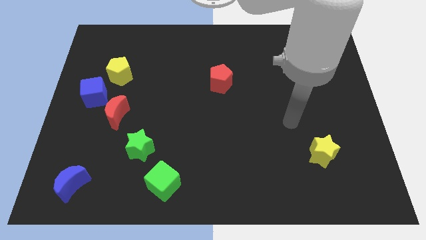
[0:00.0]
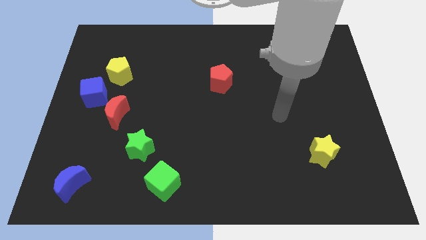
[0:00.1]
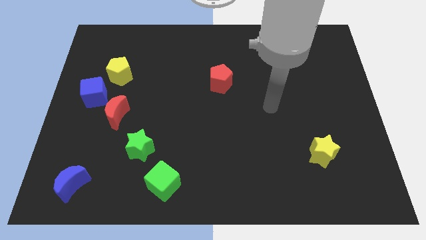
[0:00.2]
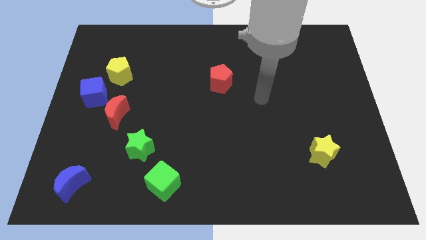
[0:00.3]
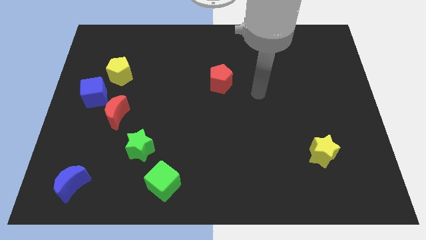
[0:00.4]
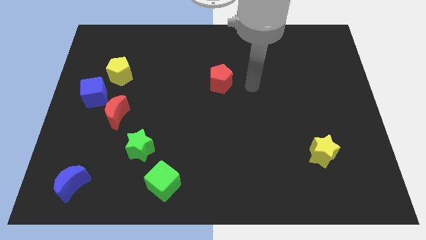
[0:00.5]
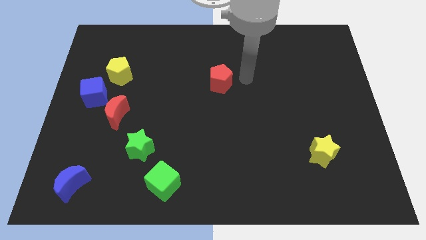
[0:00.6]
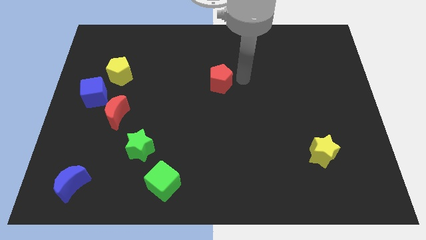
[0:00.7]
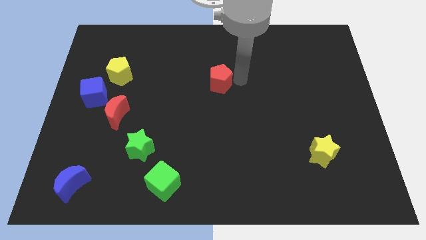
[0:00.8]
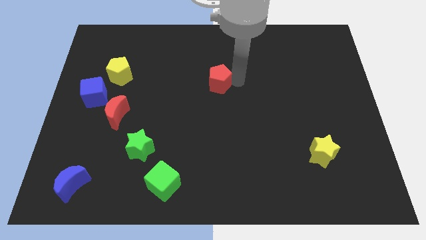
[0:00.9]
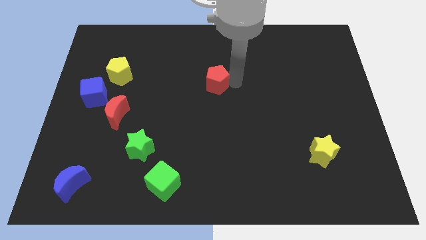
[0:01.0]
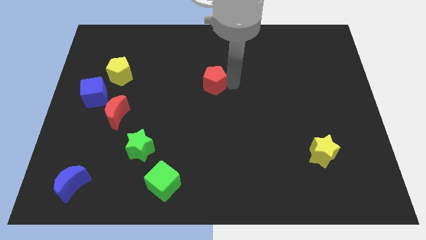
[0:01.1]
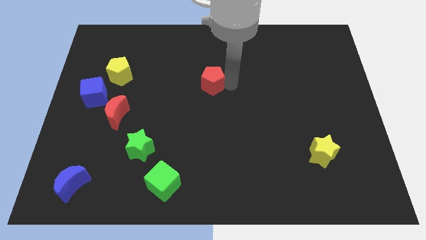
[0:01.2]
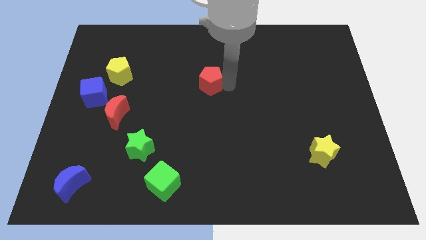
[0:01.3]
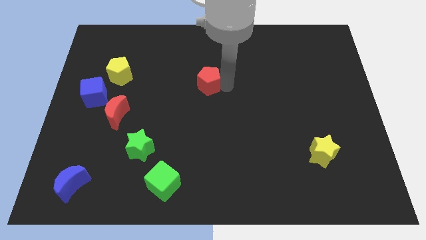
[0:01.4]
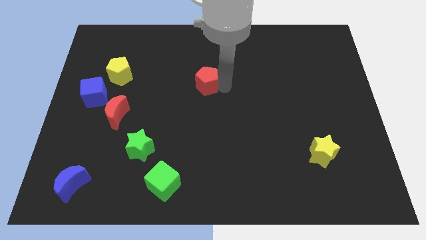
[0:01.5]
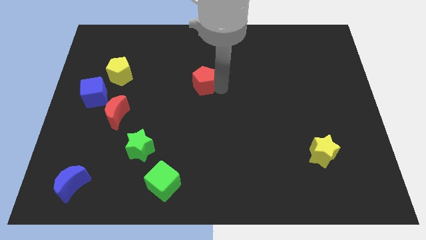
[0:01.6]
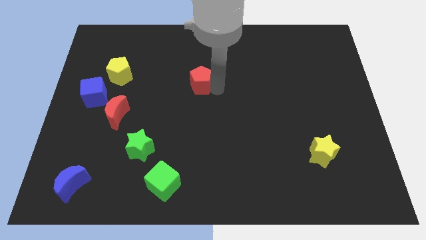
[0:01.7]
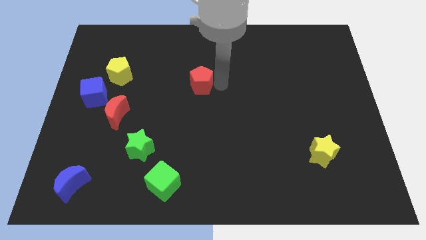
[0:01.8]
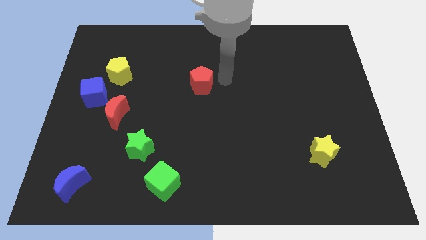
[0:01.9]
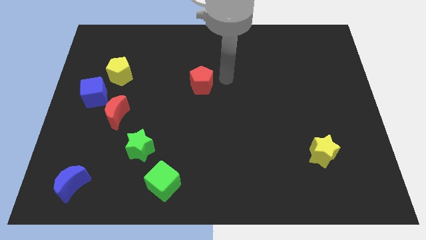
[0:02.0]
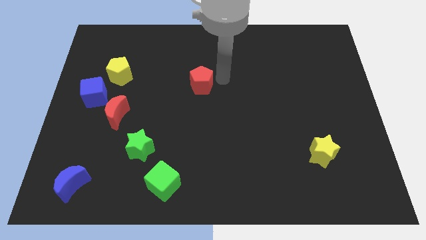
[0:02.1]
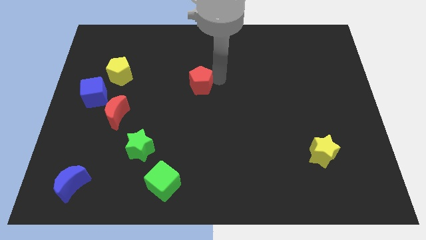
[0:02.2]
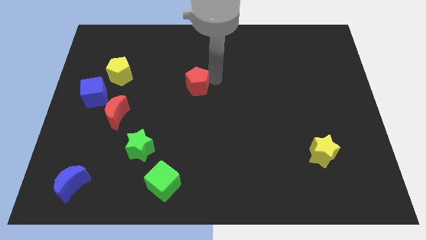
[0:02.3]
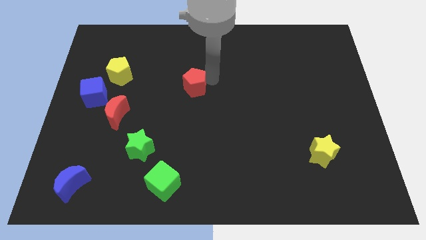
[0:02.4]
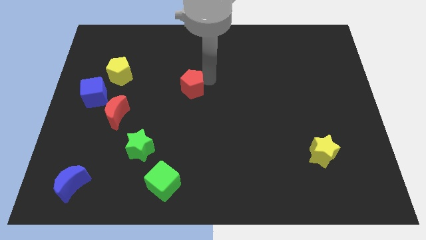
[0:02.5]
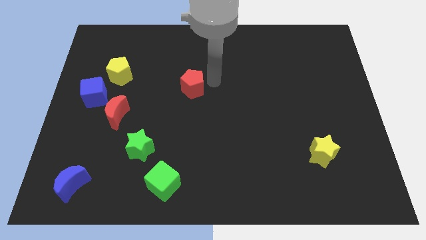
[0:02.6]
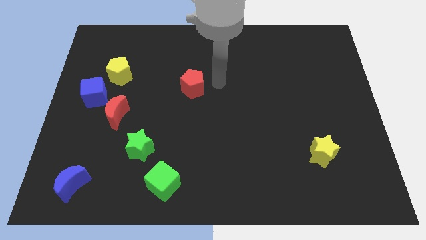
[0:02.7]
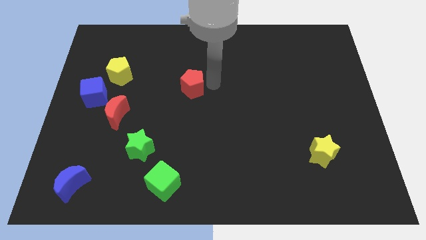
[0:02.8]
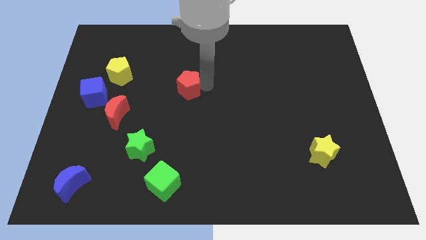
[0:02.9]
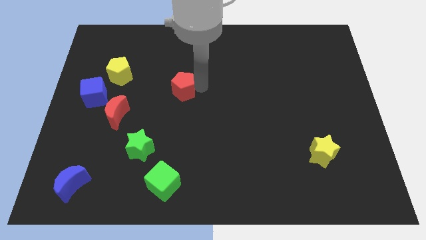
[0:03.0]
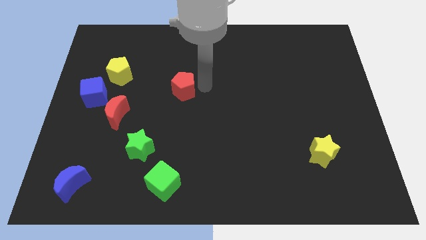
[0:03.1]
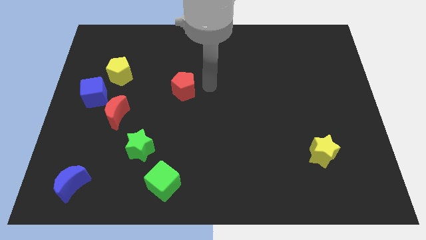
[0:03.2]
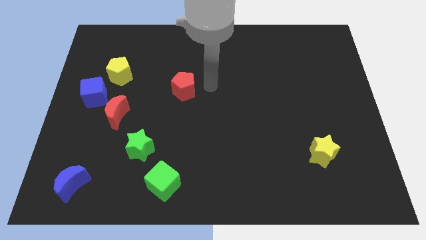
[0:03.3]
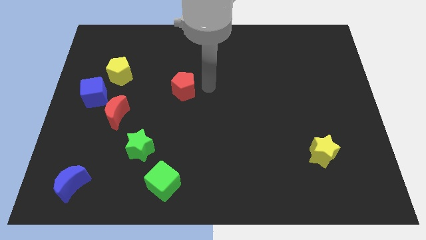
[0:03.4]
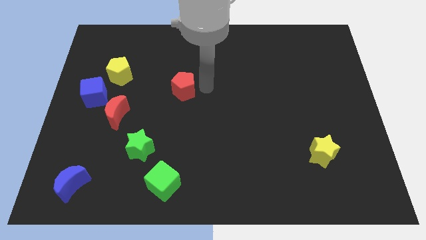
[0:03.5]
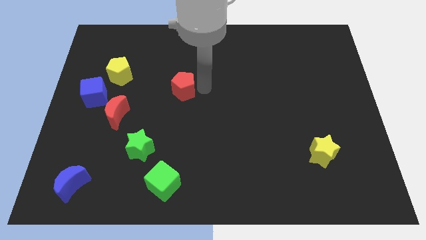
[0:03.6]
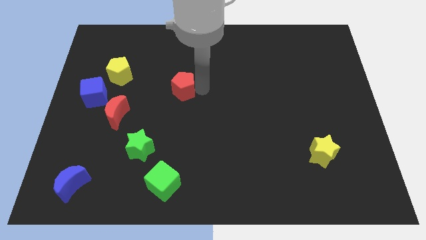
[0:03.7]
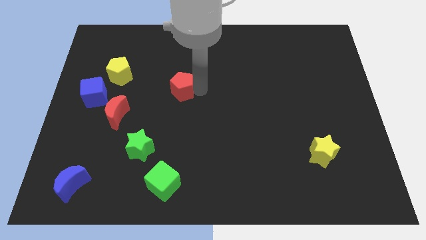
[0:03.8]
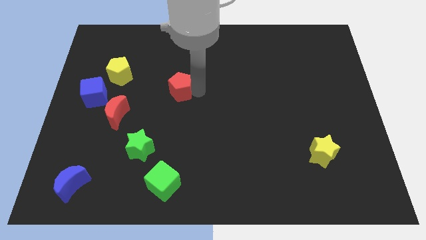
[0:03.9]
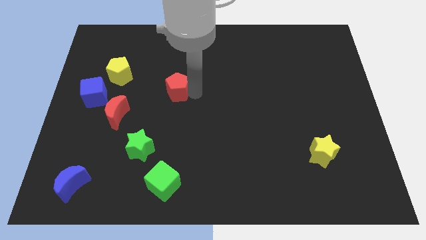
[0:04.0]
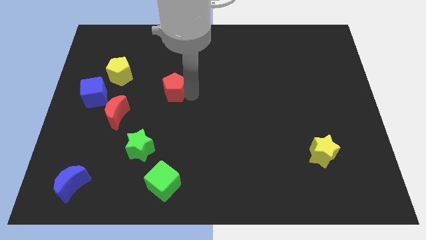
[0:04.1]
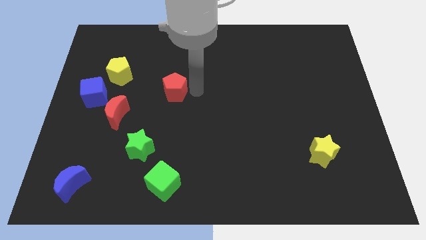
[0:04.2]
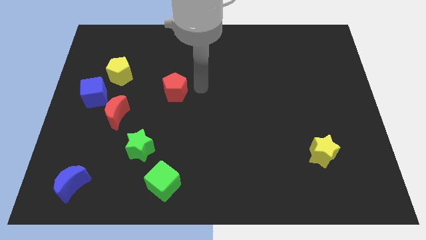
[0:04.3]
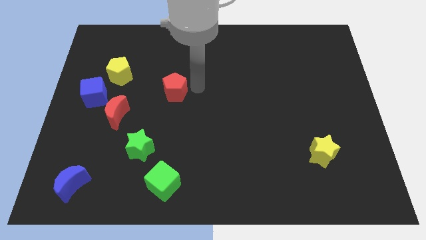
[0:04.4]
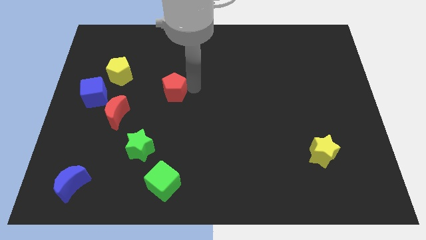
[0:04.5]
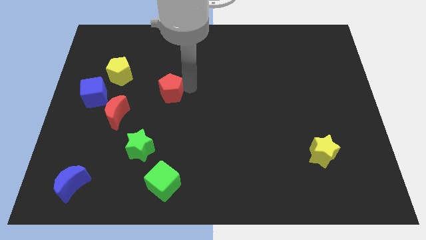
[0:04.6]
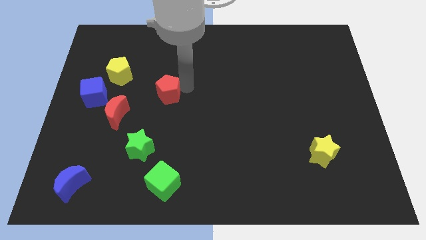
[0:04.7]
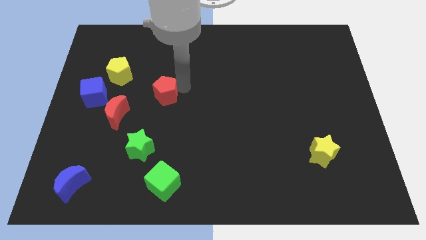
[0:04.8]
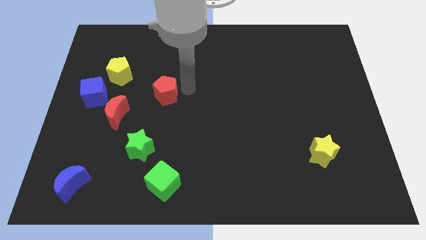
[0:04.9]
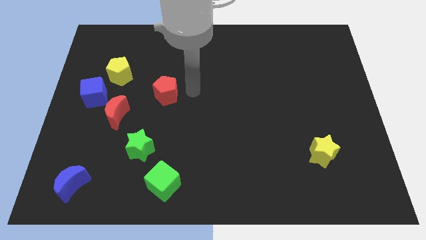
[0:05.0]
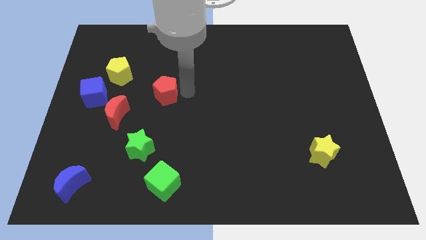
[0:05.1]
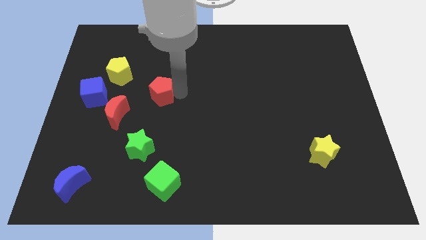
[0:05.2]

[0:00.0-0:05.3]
push the red pentagon diagonally up and to the right of the red moon

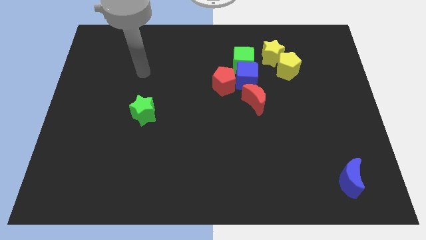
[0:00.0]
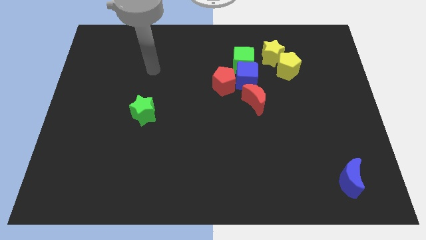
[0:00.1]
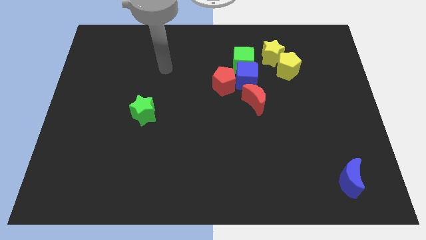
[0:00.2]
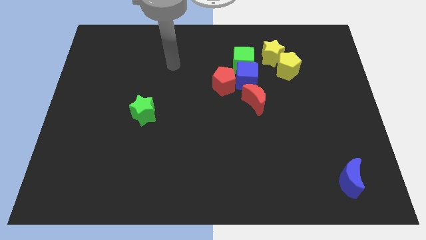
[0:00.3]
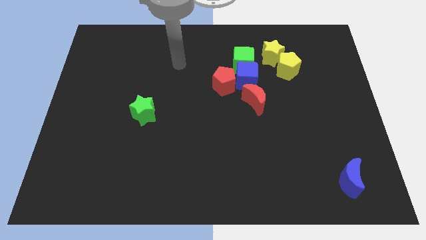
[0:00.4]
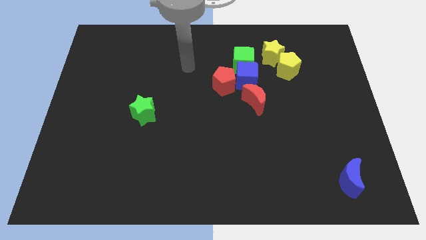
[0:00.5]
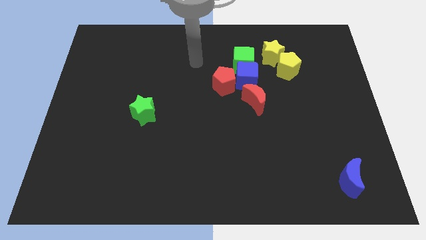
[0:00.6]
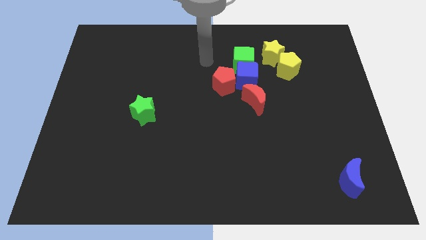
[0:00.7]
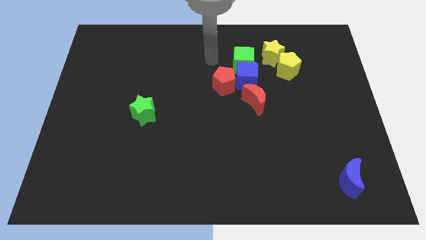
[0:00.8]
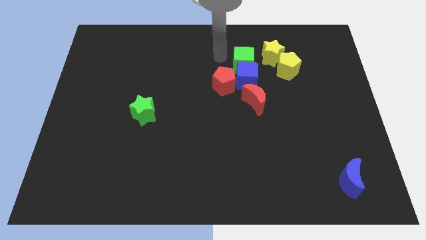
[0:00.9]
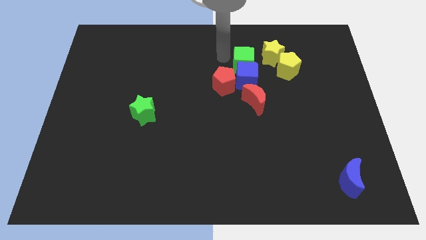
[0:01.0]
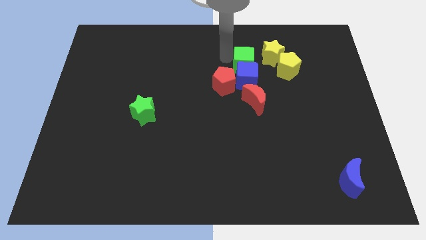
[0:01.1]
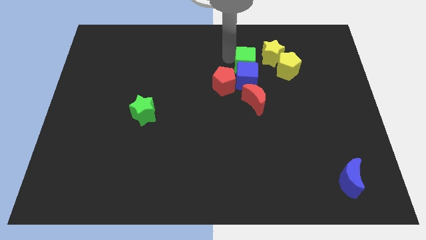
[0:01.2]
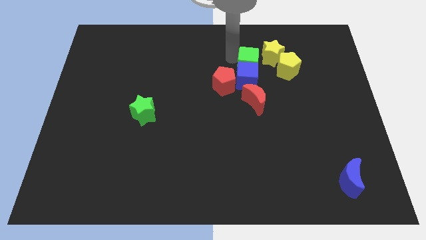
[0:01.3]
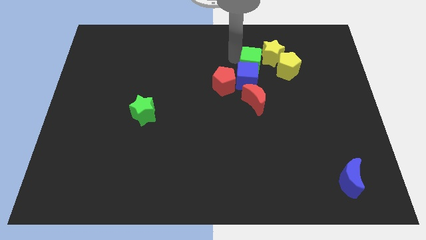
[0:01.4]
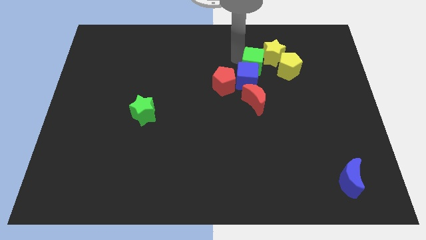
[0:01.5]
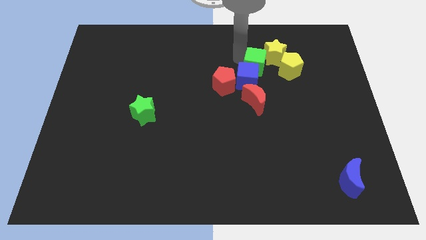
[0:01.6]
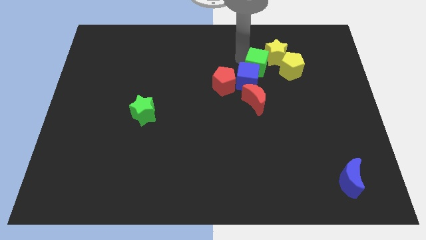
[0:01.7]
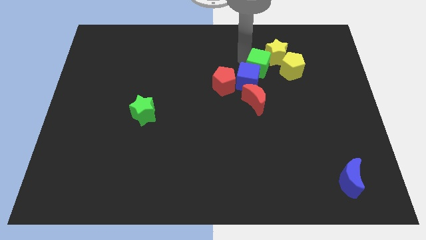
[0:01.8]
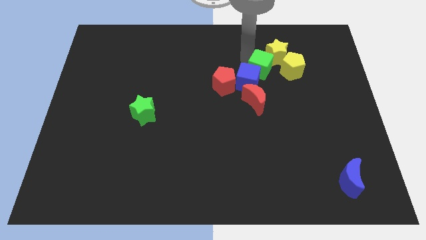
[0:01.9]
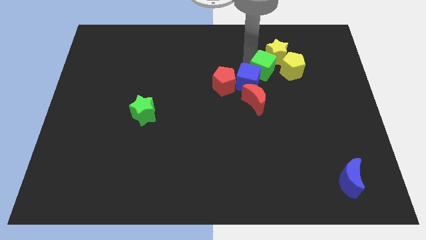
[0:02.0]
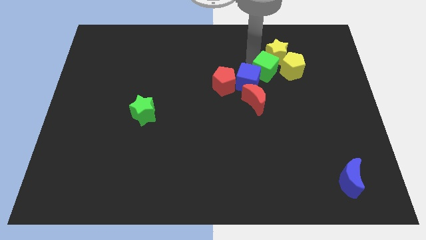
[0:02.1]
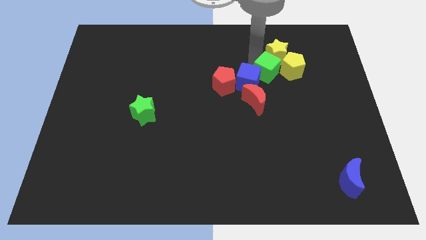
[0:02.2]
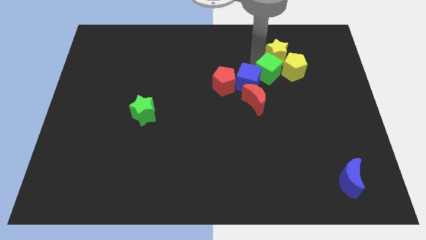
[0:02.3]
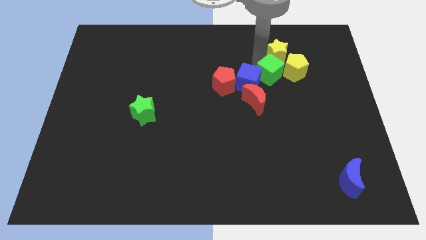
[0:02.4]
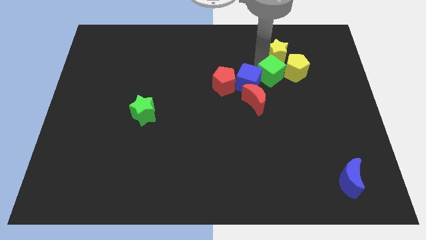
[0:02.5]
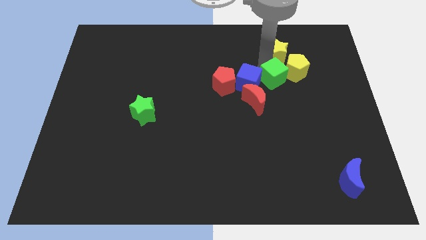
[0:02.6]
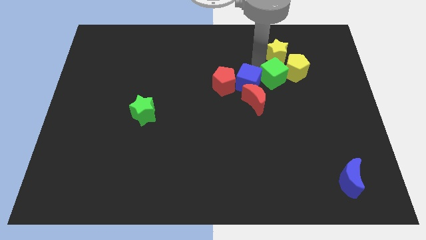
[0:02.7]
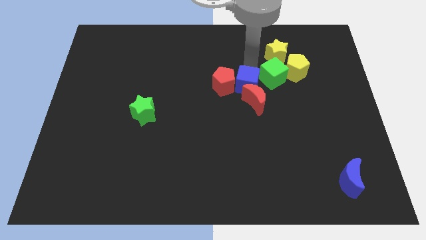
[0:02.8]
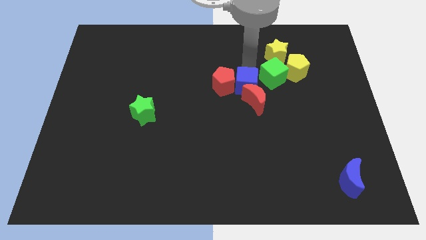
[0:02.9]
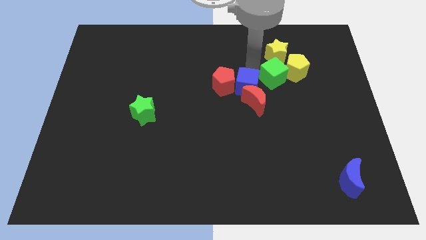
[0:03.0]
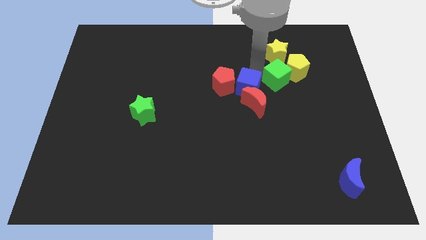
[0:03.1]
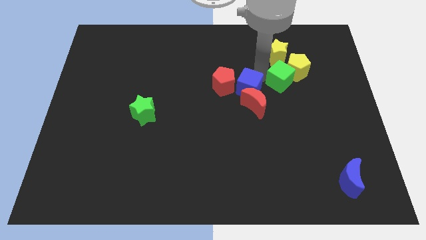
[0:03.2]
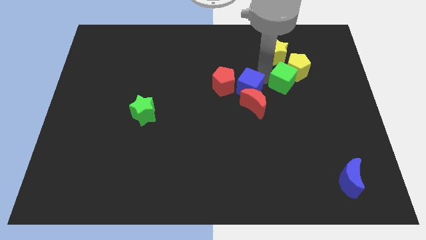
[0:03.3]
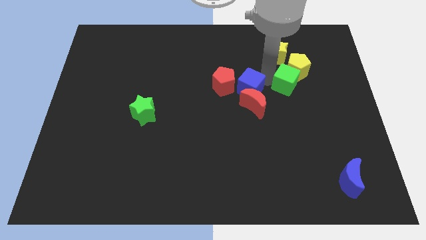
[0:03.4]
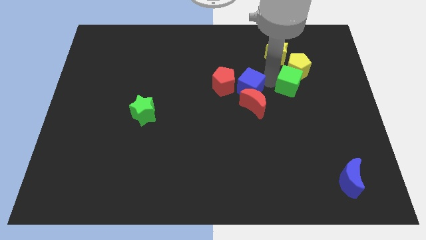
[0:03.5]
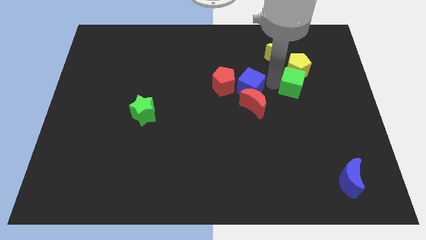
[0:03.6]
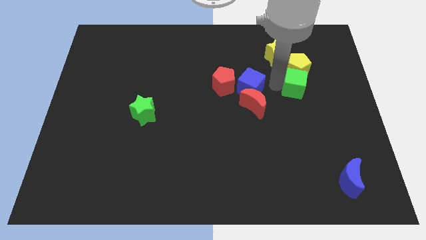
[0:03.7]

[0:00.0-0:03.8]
move the green cube diagonally down and to the right of the yellow pentagon
